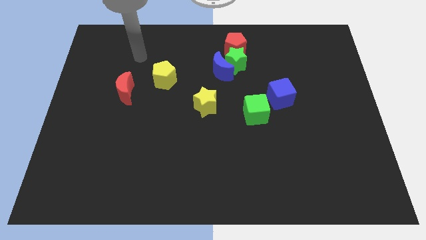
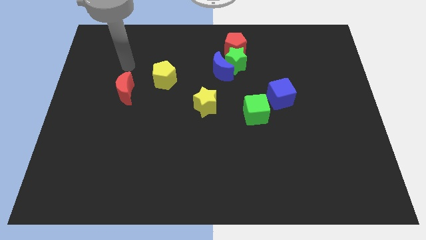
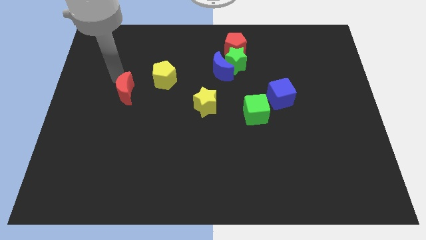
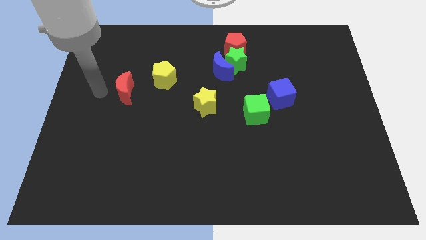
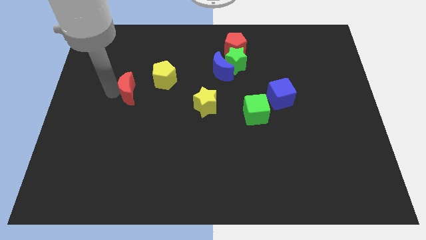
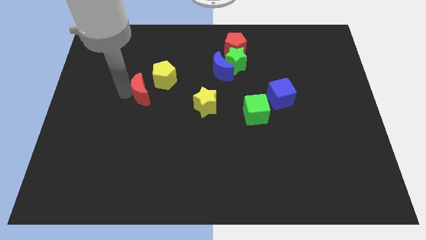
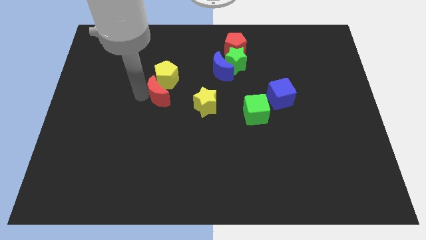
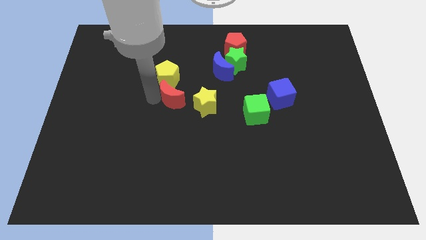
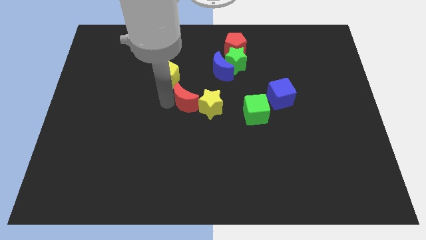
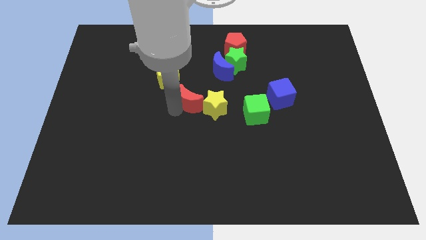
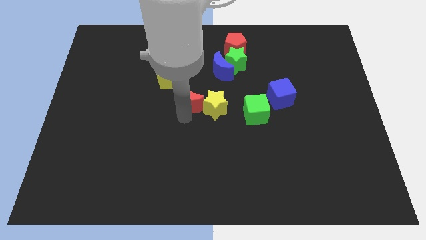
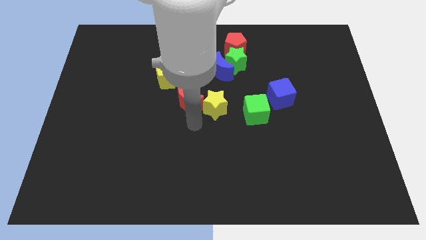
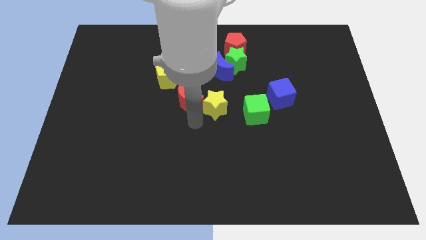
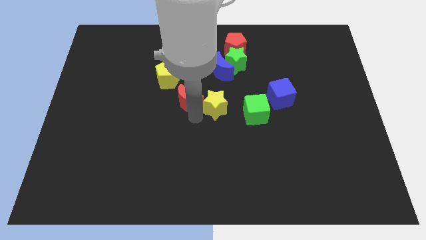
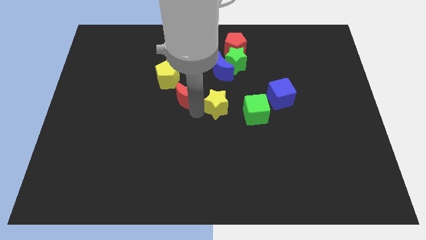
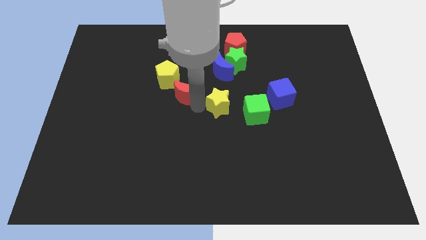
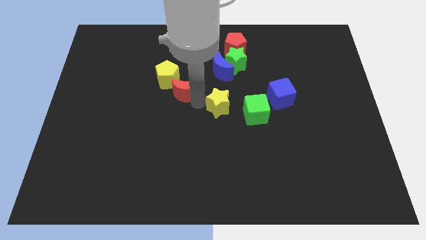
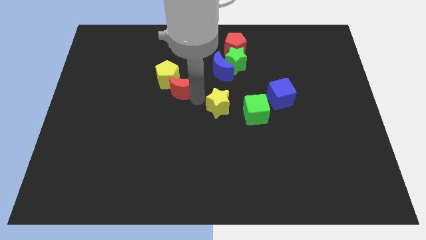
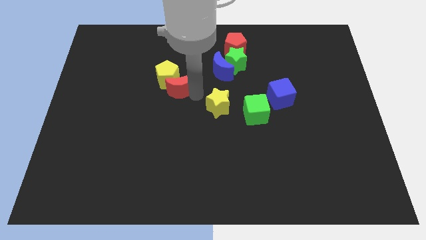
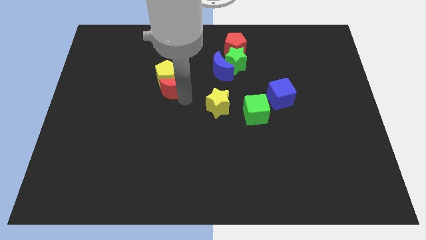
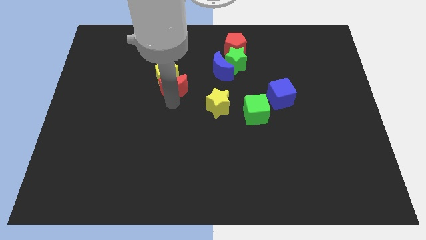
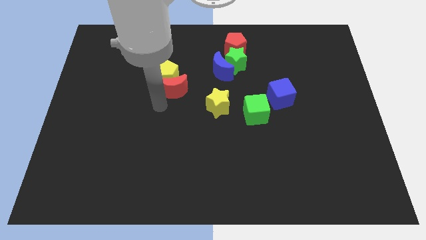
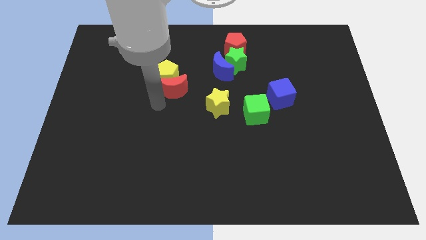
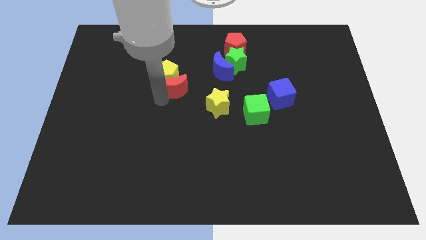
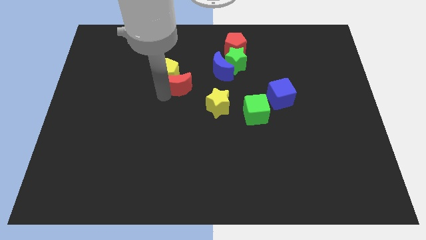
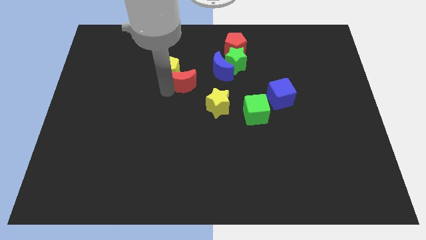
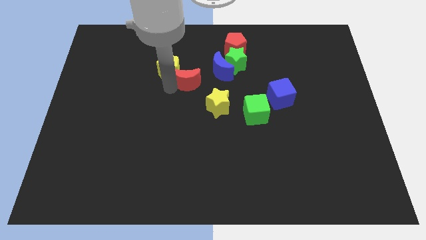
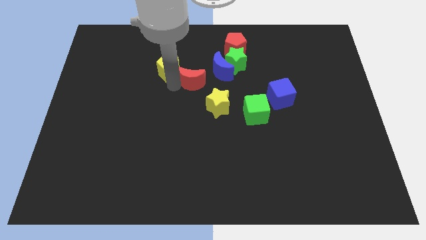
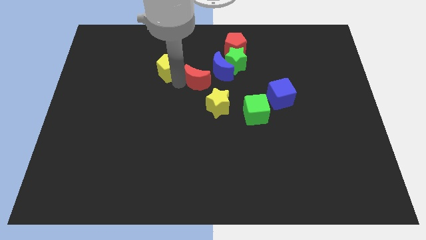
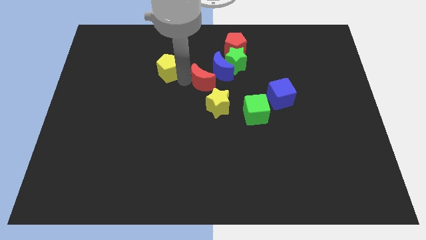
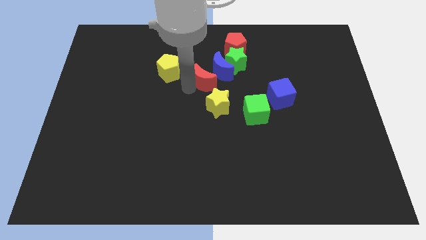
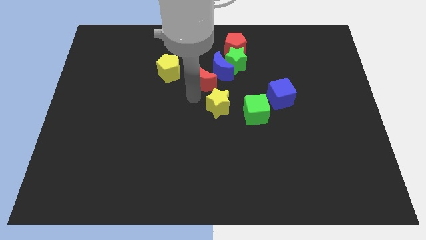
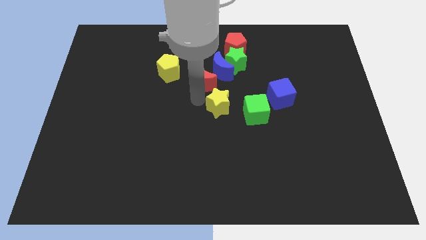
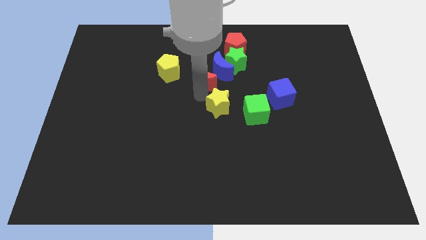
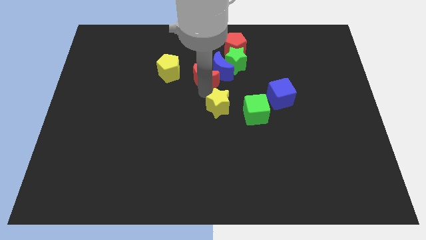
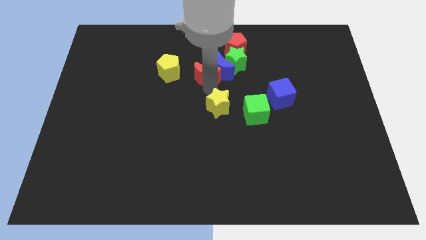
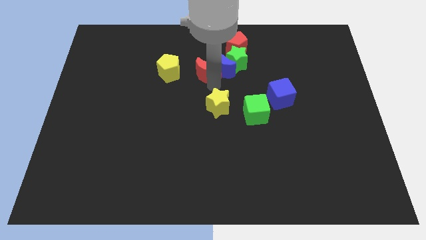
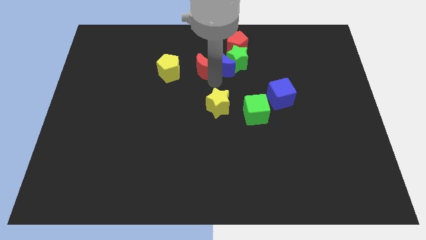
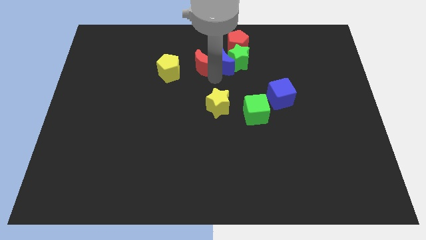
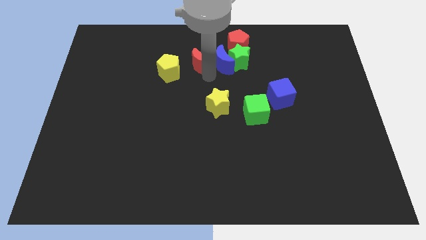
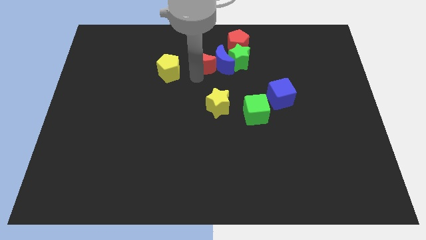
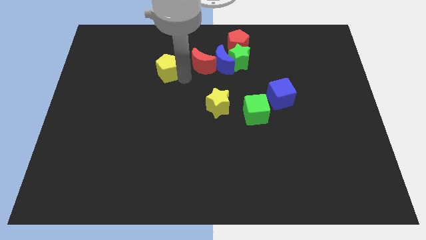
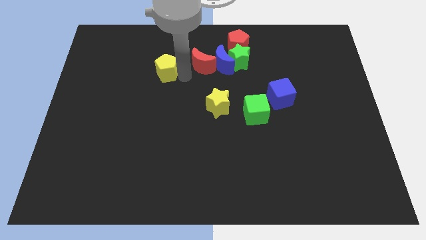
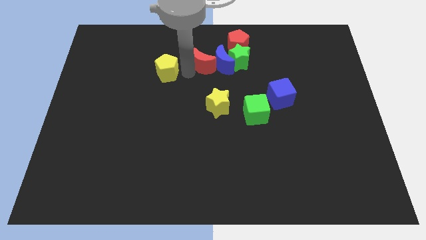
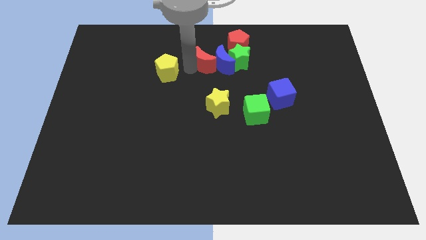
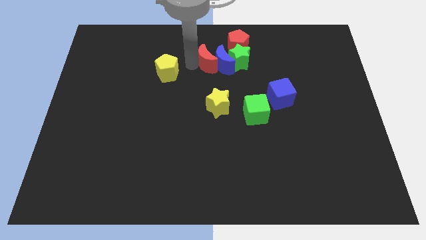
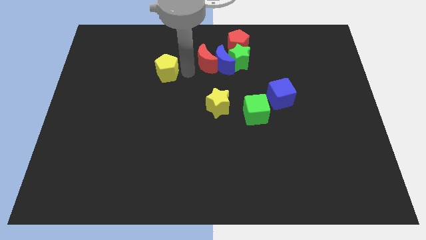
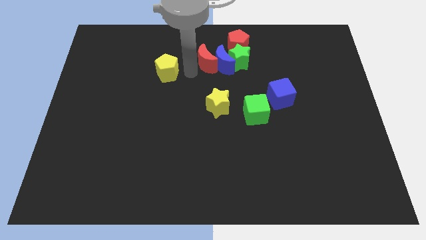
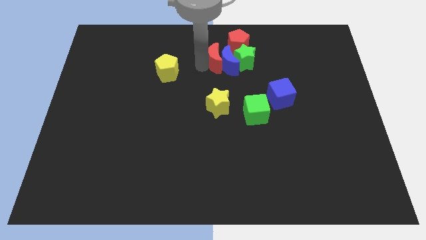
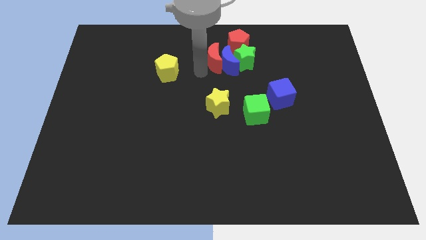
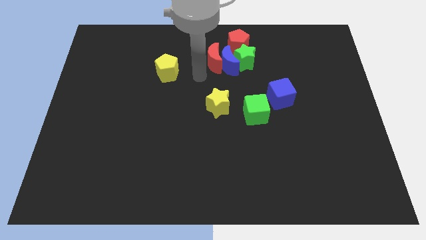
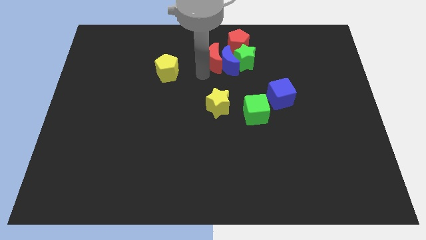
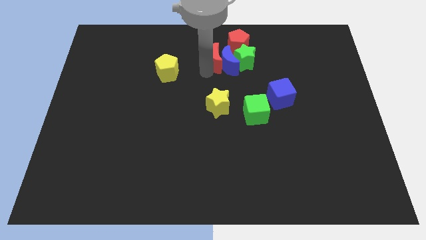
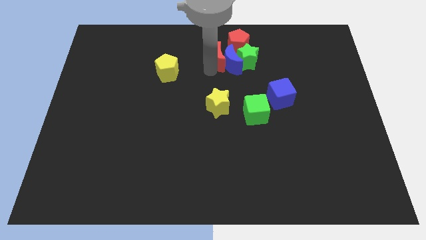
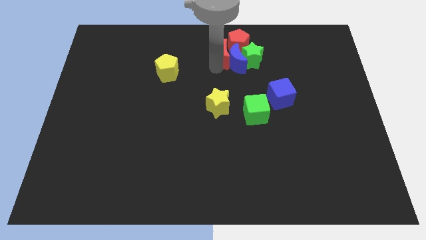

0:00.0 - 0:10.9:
push the red moon close to the red pentagon
